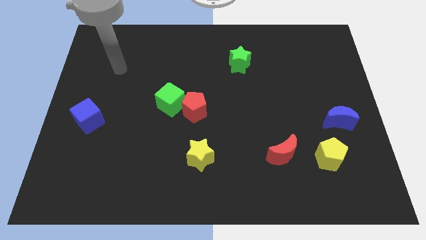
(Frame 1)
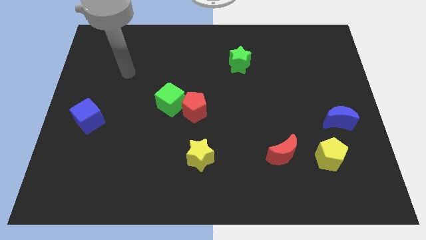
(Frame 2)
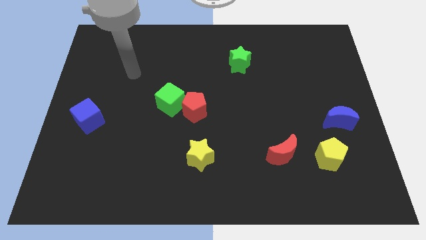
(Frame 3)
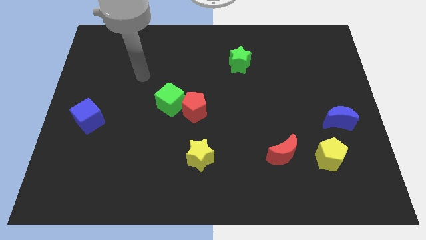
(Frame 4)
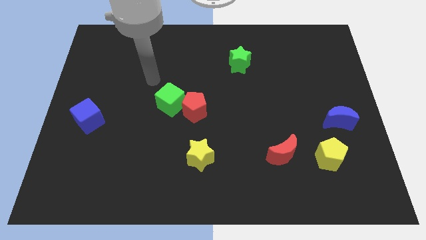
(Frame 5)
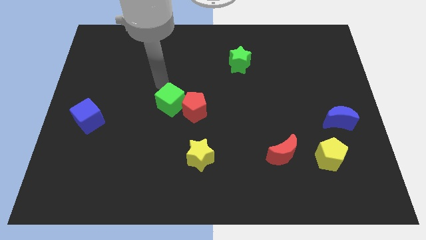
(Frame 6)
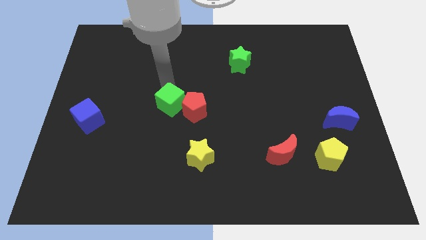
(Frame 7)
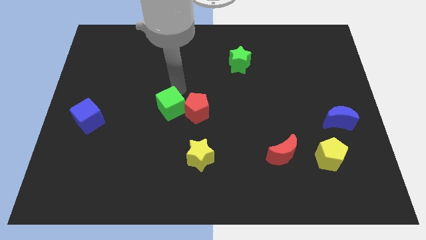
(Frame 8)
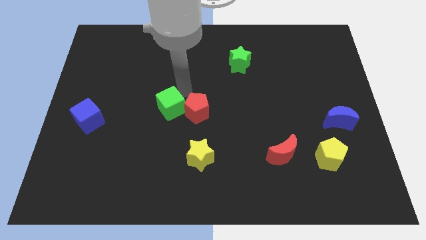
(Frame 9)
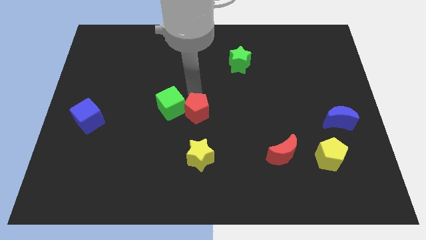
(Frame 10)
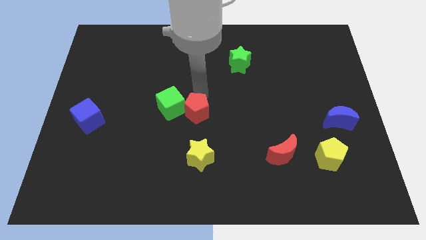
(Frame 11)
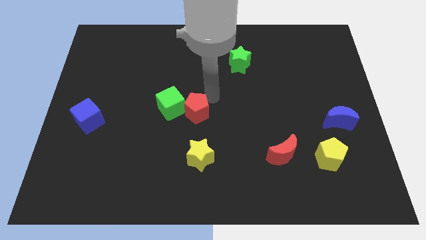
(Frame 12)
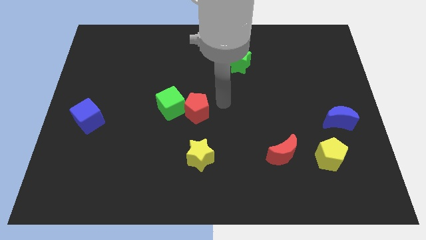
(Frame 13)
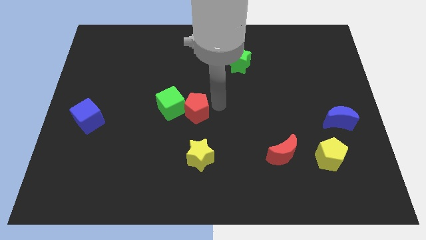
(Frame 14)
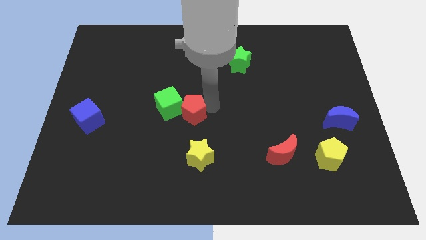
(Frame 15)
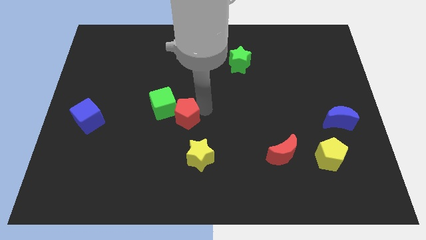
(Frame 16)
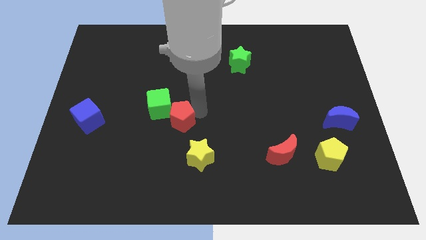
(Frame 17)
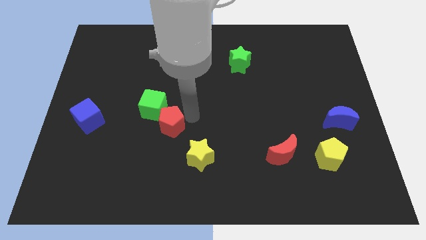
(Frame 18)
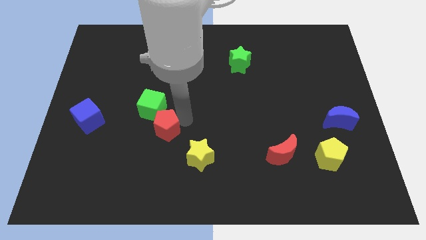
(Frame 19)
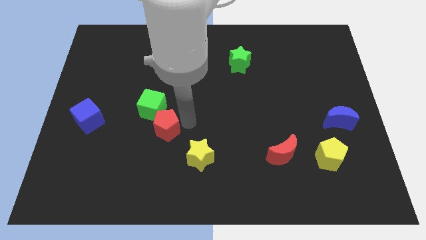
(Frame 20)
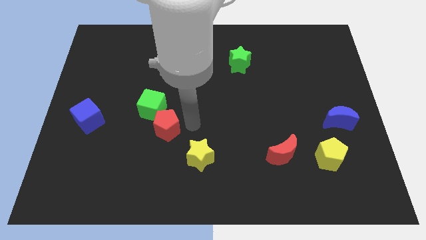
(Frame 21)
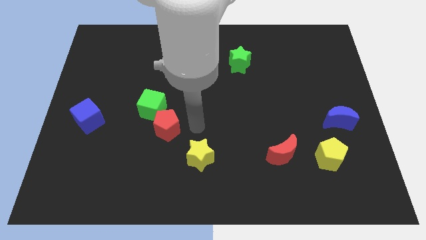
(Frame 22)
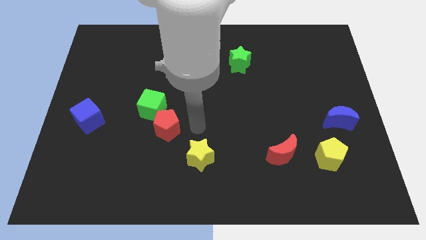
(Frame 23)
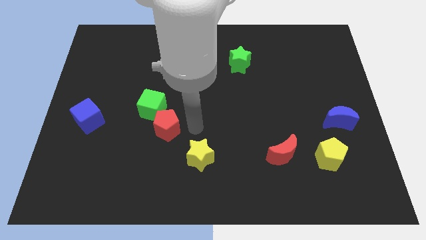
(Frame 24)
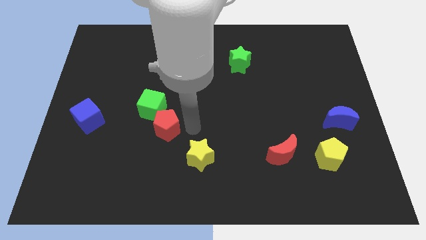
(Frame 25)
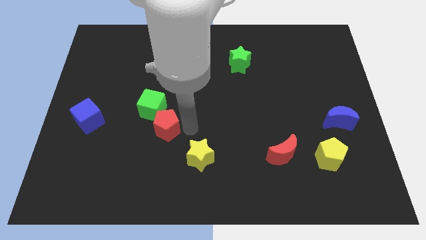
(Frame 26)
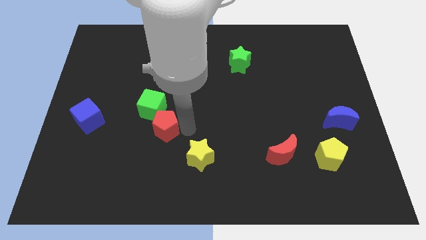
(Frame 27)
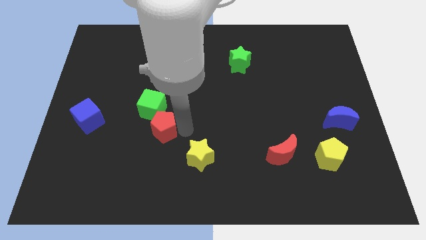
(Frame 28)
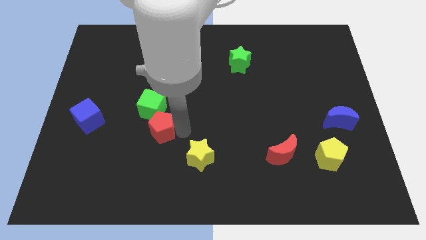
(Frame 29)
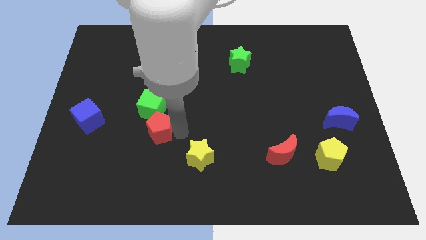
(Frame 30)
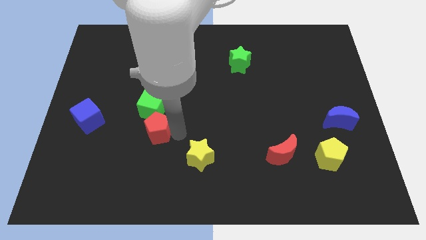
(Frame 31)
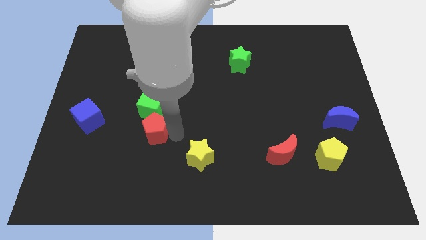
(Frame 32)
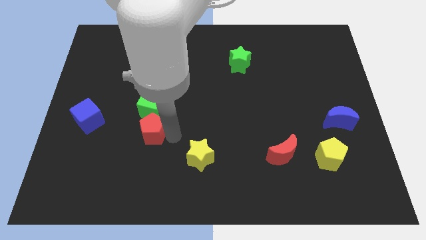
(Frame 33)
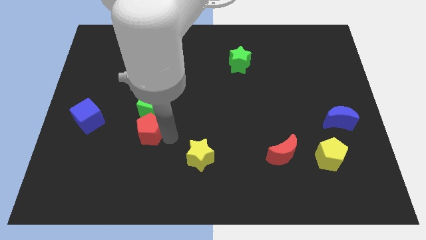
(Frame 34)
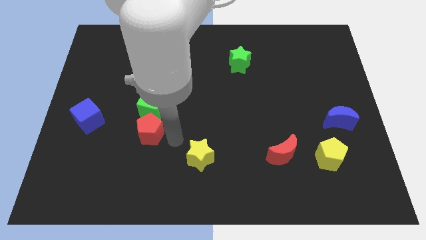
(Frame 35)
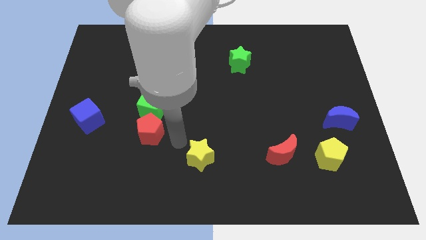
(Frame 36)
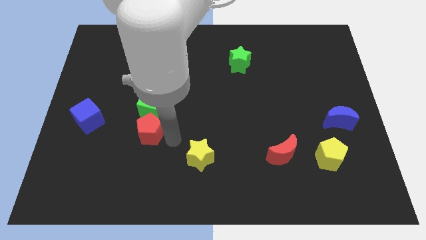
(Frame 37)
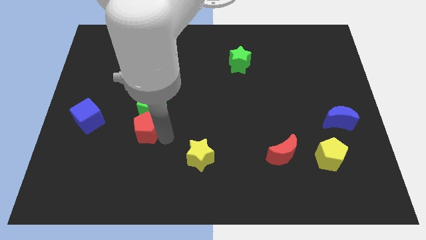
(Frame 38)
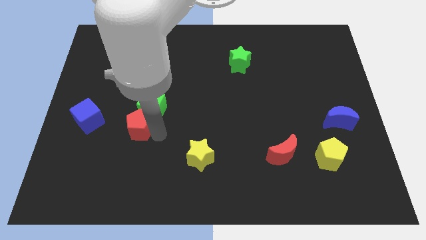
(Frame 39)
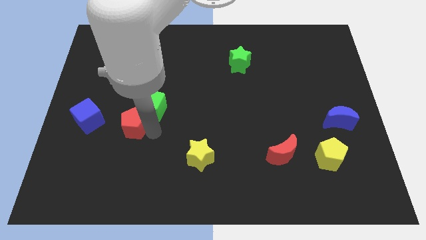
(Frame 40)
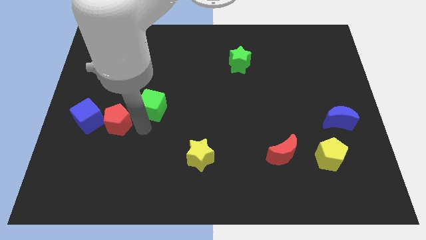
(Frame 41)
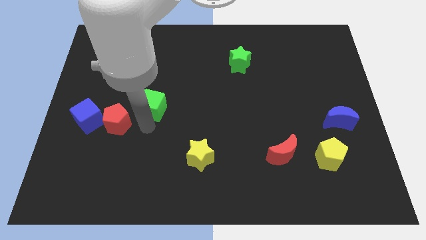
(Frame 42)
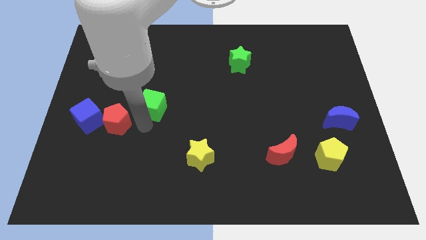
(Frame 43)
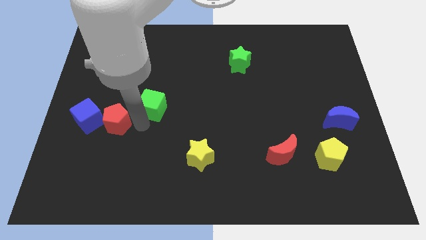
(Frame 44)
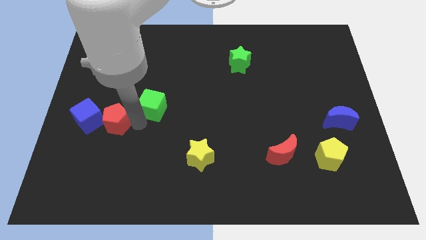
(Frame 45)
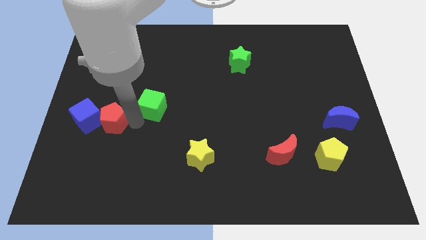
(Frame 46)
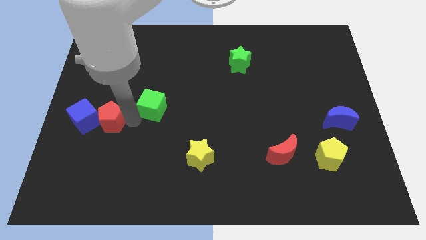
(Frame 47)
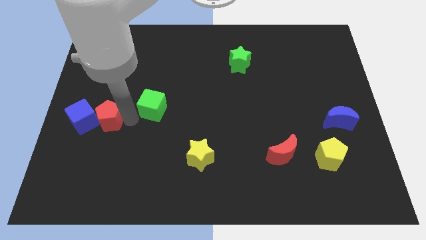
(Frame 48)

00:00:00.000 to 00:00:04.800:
move the red pentagon to the blue cube

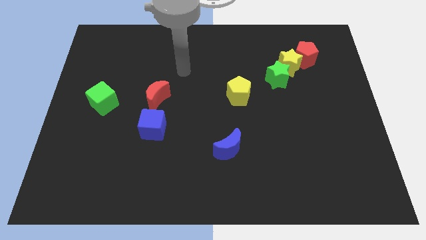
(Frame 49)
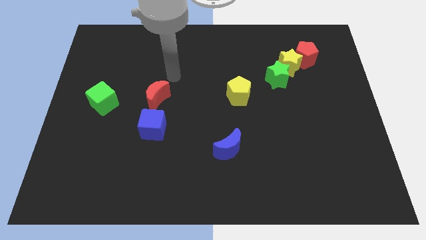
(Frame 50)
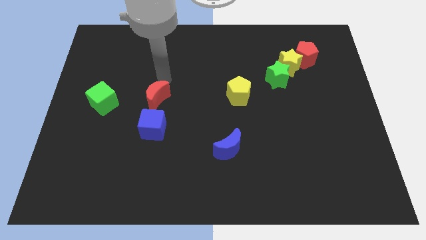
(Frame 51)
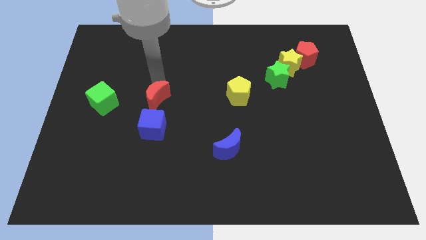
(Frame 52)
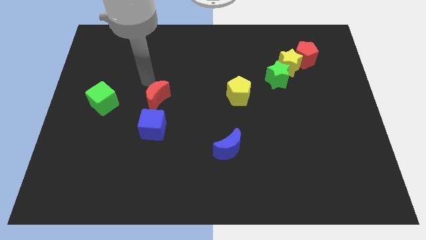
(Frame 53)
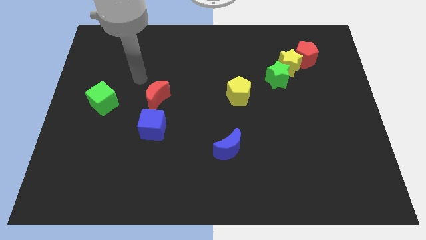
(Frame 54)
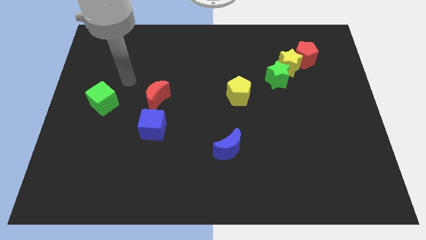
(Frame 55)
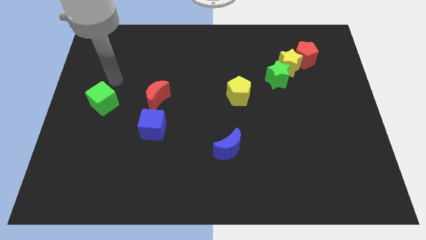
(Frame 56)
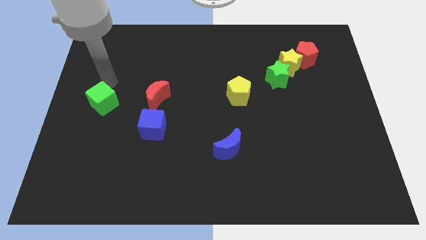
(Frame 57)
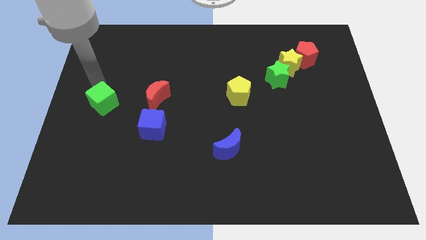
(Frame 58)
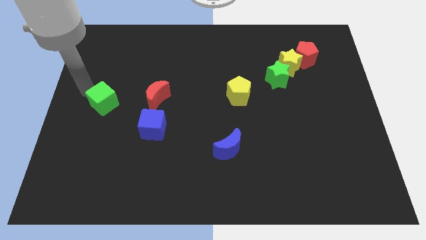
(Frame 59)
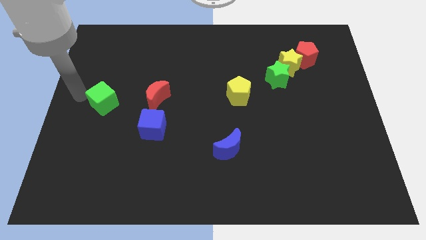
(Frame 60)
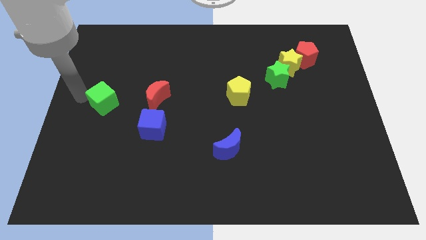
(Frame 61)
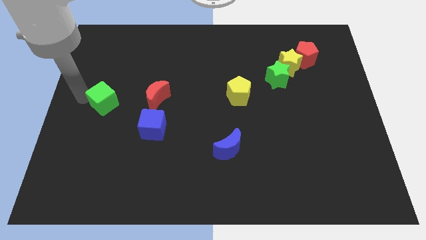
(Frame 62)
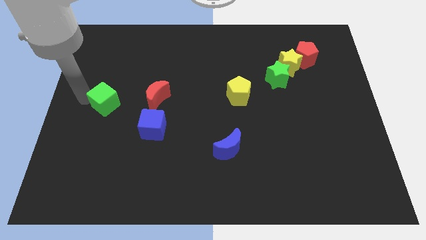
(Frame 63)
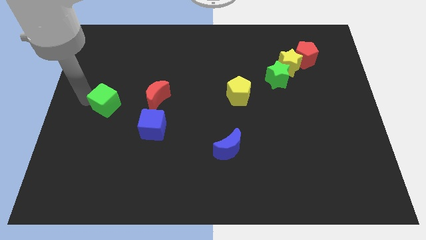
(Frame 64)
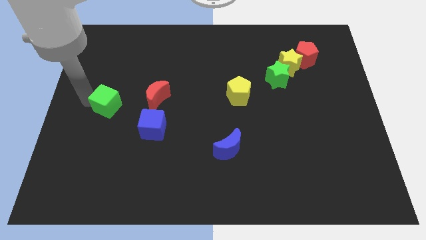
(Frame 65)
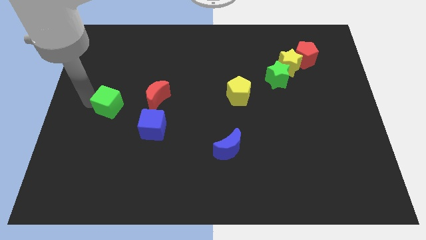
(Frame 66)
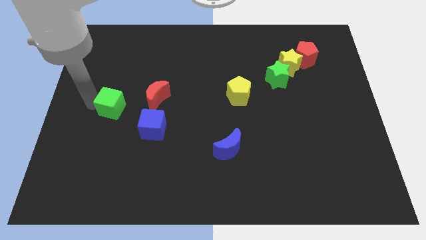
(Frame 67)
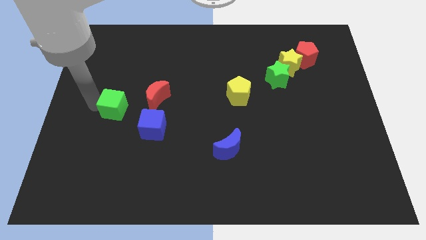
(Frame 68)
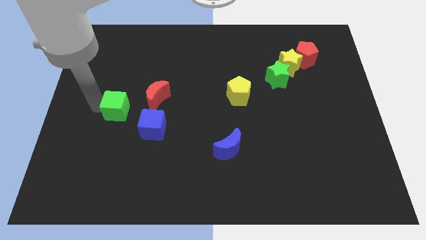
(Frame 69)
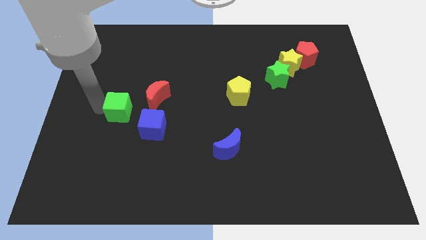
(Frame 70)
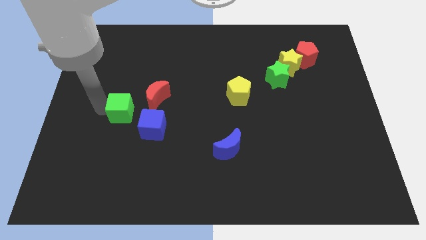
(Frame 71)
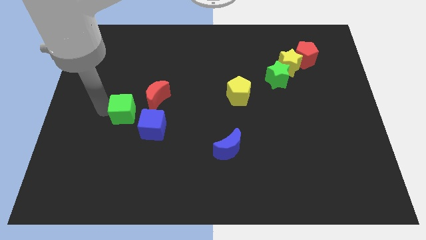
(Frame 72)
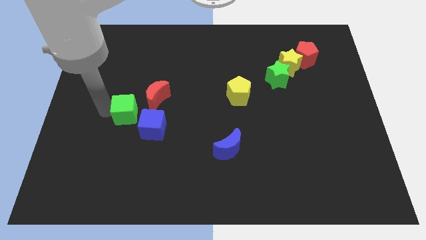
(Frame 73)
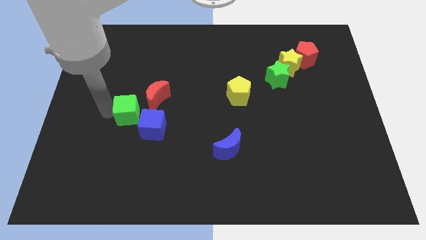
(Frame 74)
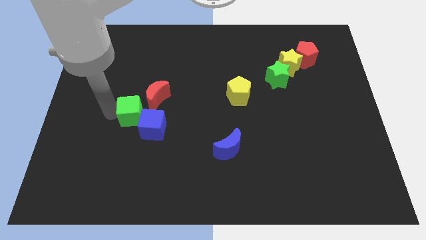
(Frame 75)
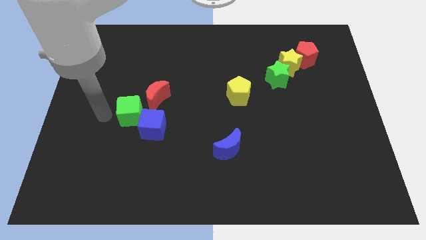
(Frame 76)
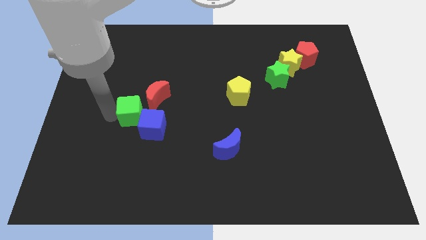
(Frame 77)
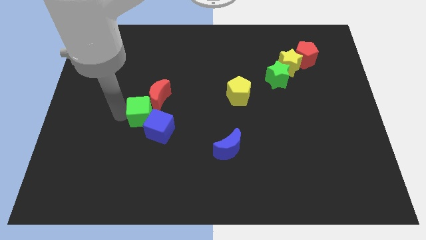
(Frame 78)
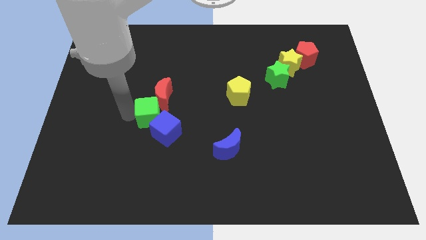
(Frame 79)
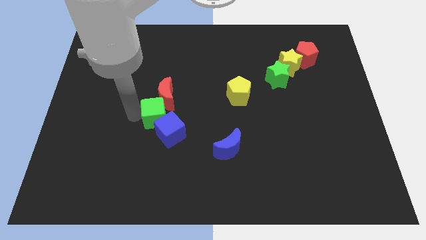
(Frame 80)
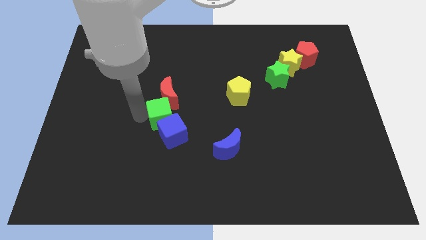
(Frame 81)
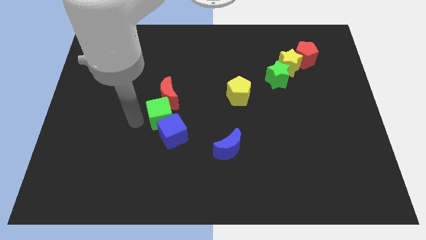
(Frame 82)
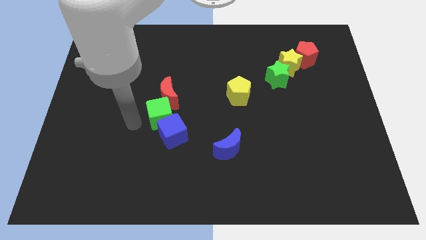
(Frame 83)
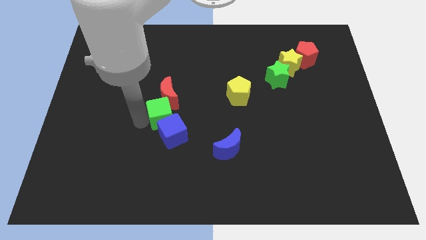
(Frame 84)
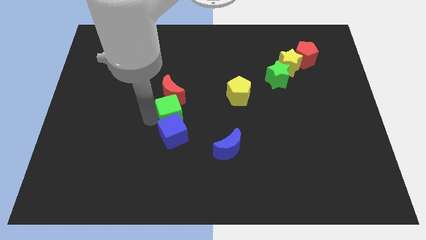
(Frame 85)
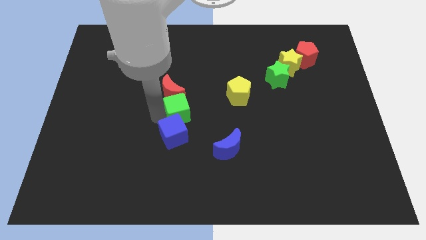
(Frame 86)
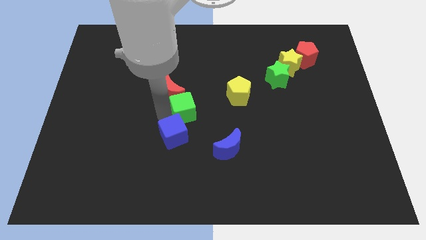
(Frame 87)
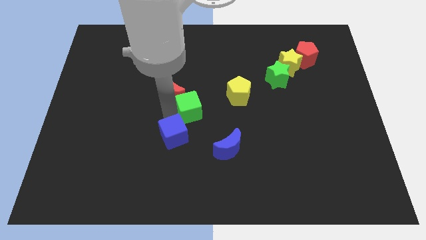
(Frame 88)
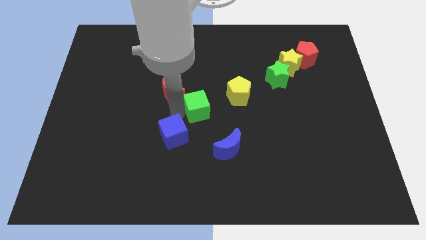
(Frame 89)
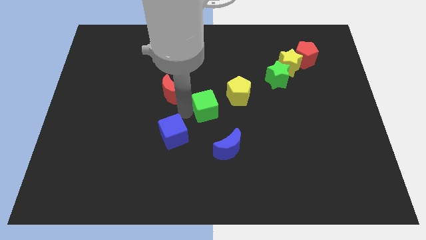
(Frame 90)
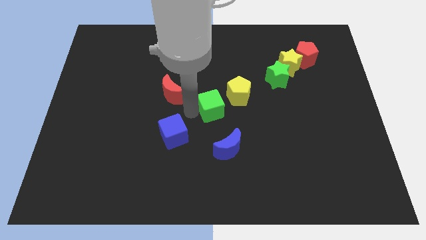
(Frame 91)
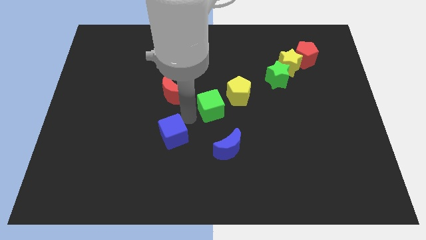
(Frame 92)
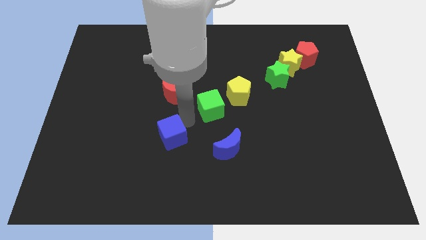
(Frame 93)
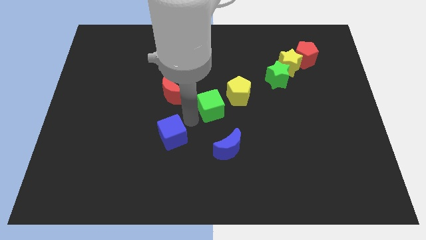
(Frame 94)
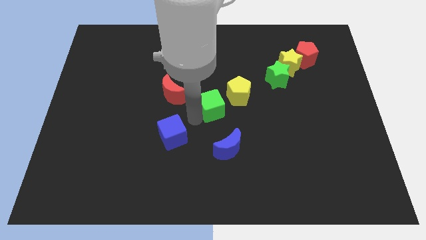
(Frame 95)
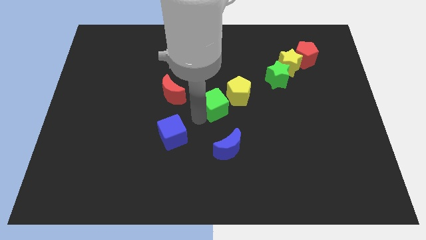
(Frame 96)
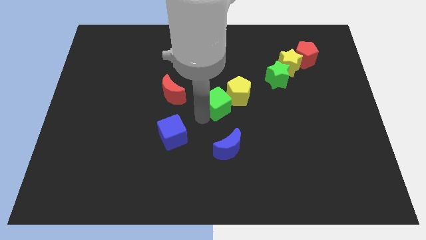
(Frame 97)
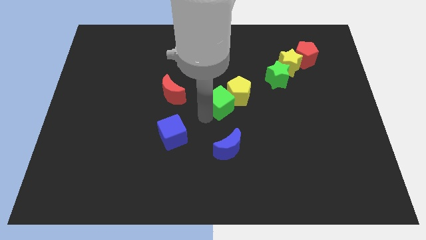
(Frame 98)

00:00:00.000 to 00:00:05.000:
slide the green cube towards the yellow pentagon
